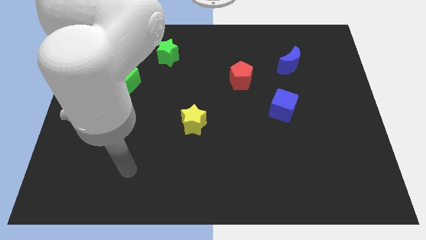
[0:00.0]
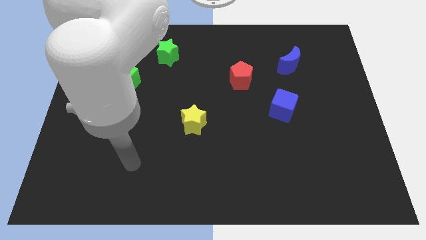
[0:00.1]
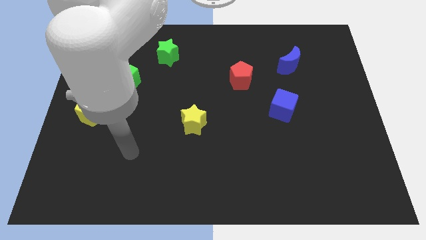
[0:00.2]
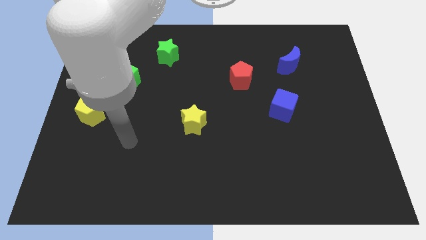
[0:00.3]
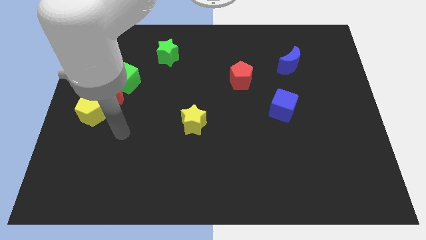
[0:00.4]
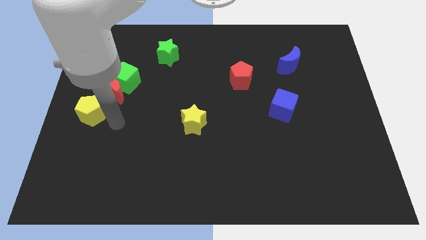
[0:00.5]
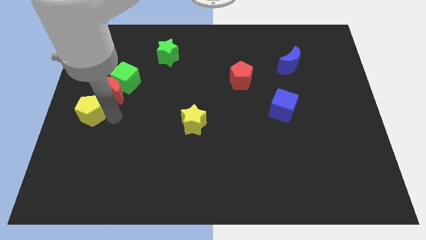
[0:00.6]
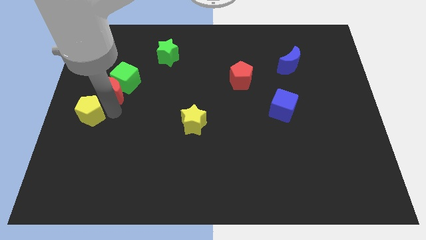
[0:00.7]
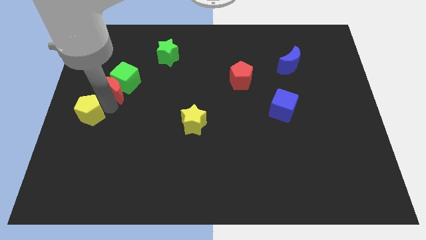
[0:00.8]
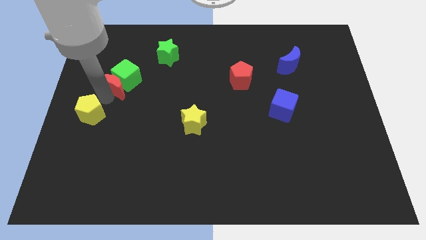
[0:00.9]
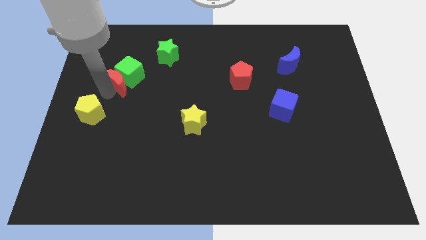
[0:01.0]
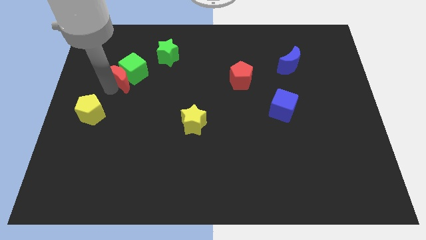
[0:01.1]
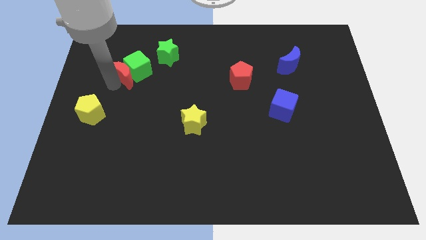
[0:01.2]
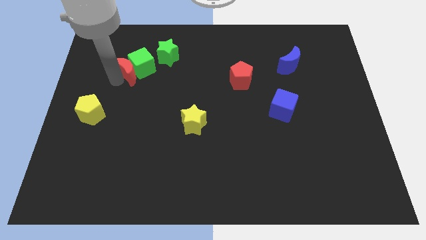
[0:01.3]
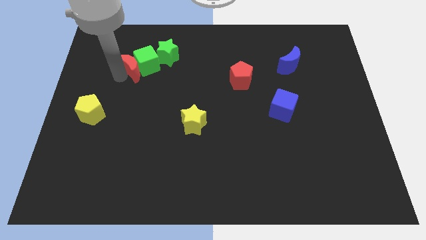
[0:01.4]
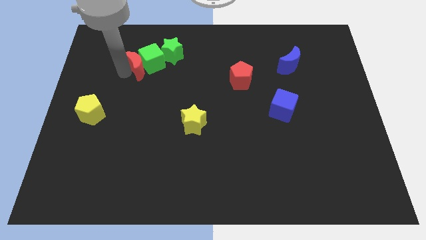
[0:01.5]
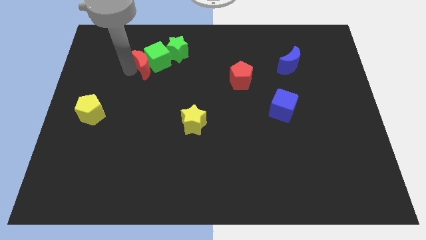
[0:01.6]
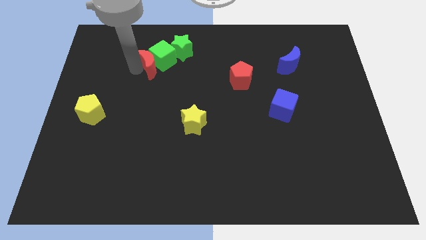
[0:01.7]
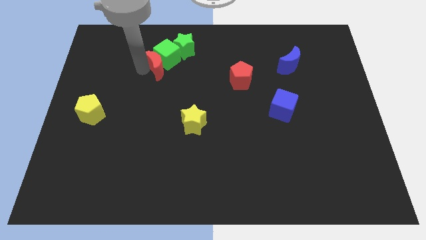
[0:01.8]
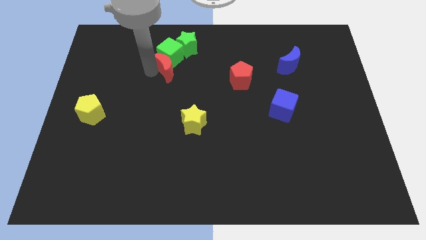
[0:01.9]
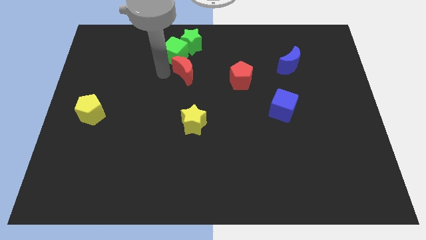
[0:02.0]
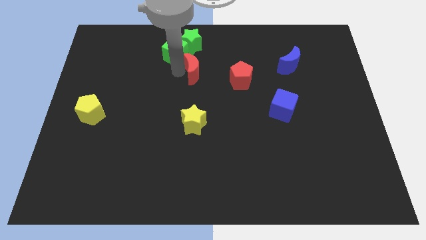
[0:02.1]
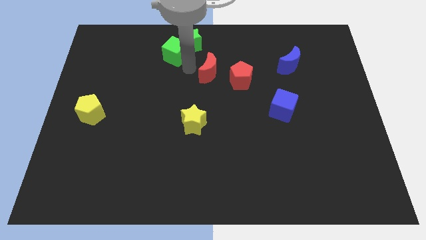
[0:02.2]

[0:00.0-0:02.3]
separate the green cube from the red moon

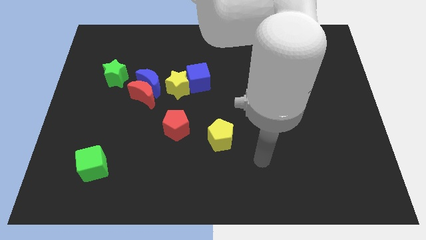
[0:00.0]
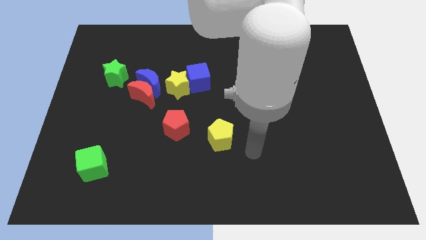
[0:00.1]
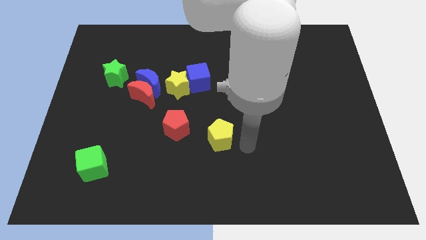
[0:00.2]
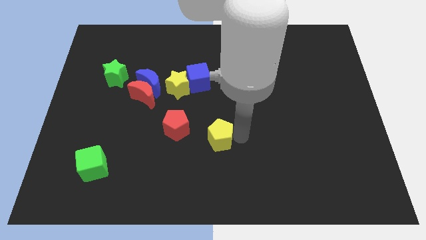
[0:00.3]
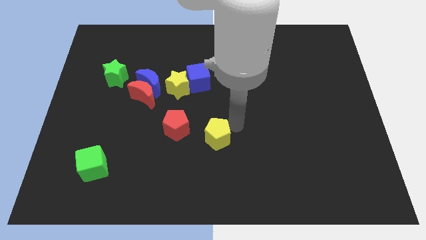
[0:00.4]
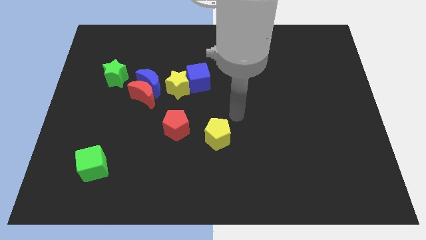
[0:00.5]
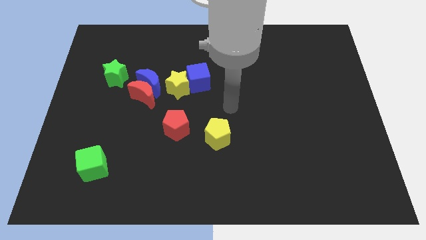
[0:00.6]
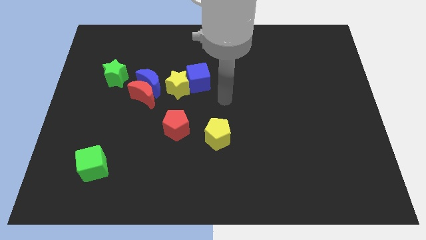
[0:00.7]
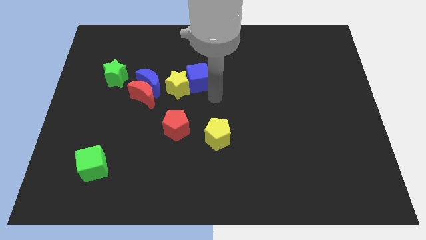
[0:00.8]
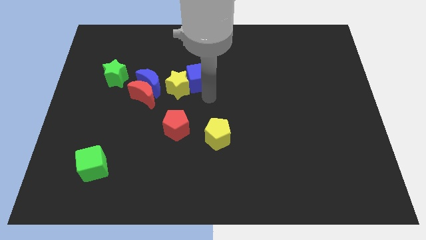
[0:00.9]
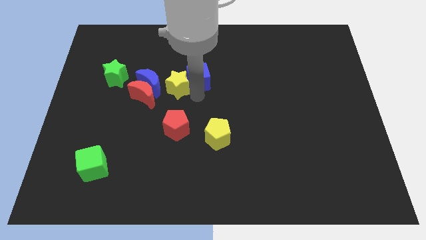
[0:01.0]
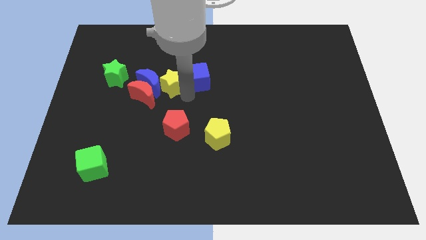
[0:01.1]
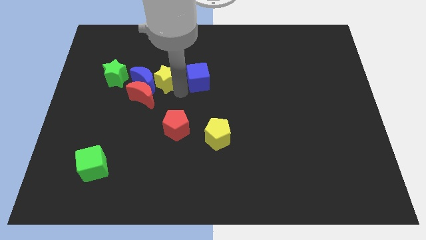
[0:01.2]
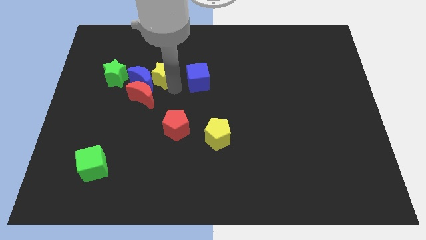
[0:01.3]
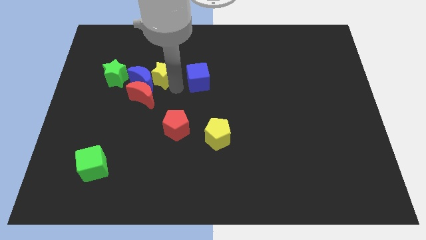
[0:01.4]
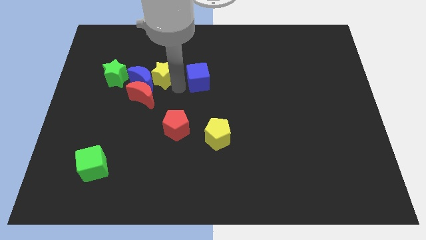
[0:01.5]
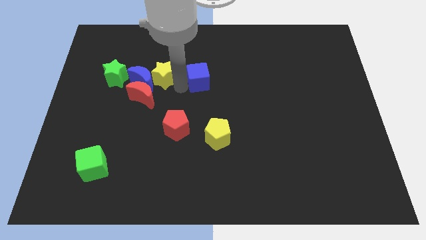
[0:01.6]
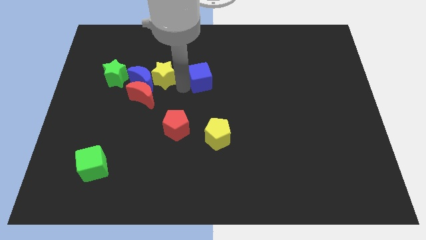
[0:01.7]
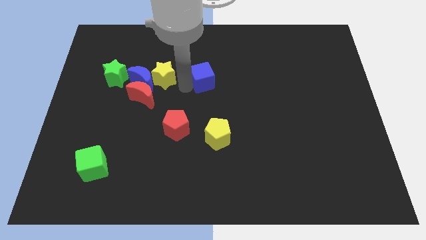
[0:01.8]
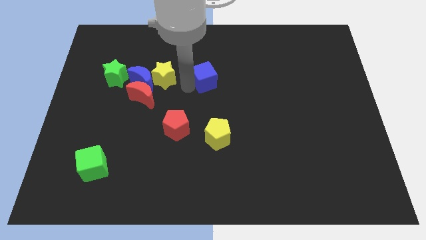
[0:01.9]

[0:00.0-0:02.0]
pull the blue cube apart from the yellow star

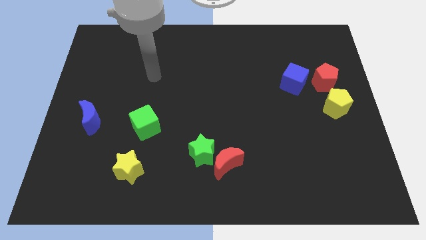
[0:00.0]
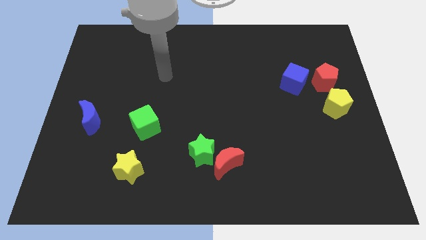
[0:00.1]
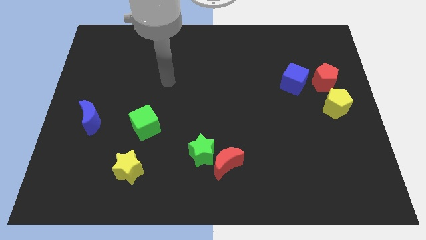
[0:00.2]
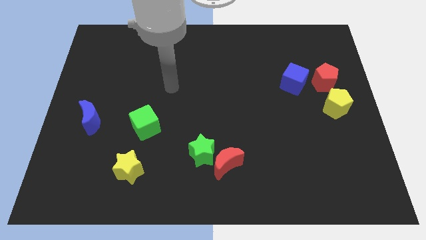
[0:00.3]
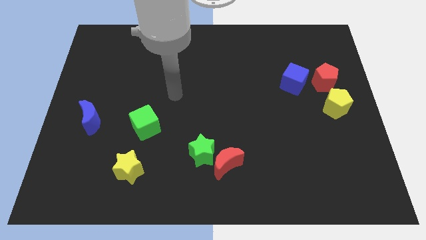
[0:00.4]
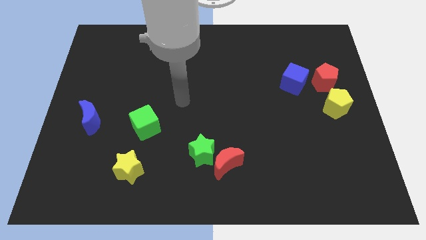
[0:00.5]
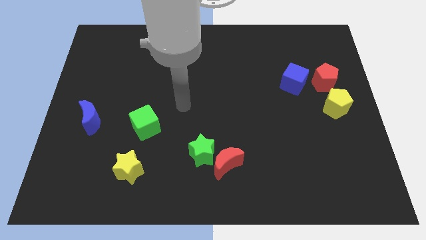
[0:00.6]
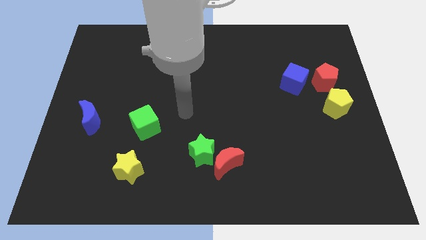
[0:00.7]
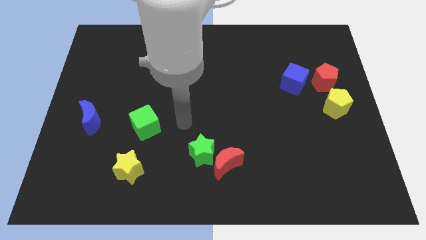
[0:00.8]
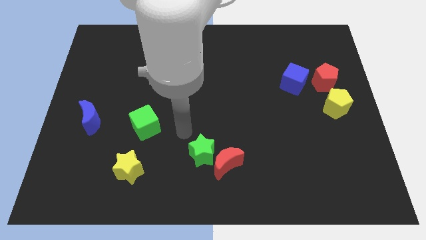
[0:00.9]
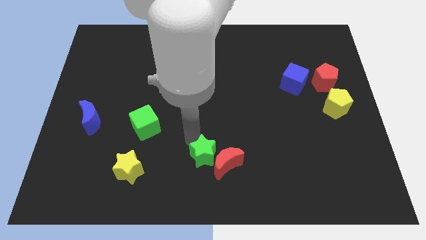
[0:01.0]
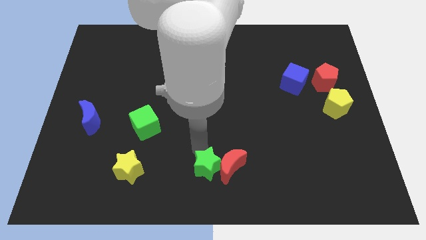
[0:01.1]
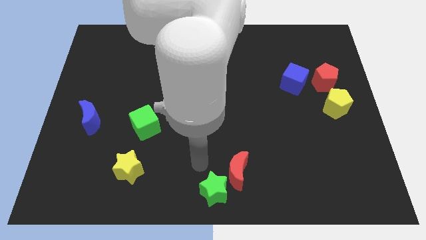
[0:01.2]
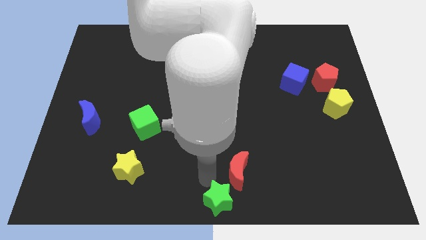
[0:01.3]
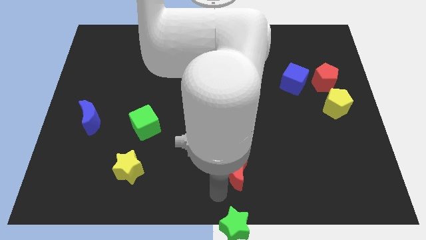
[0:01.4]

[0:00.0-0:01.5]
pull the red moon apart from the green star

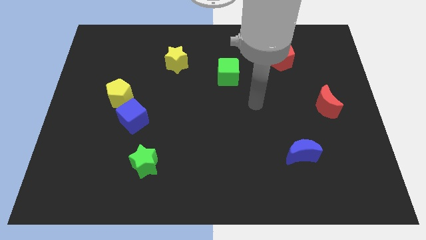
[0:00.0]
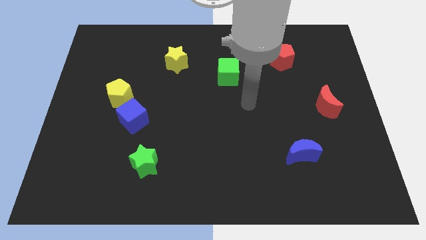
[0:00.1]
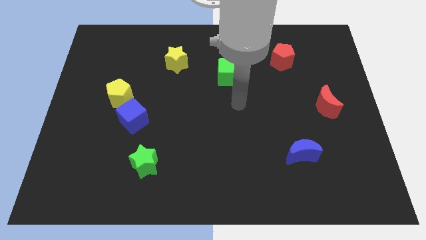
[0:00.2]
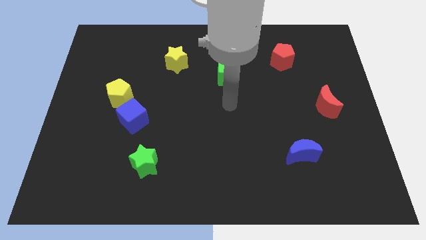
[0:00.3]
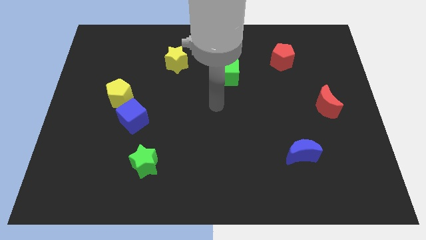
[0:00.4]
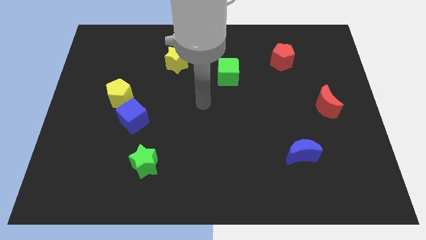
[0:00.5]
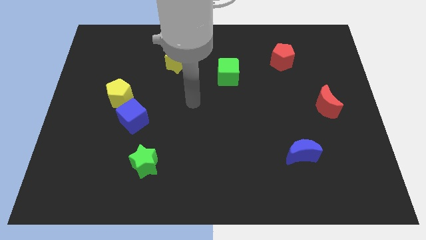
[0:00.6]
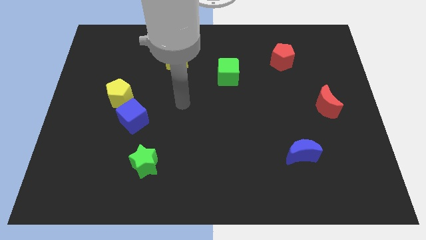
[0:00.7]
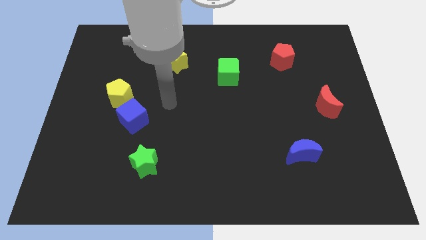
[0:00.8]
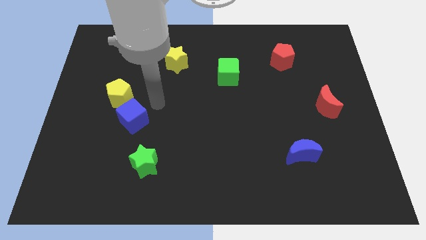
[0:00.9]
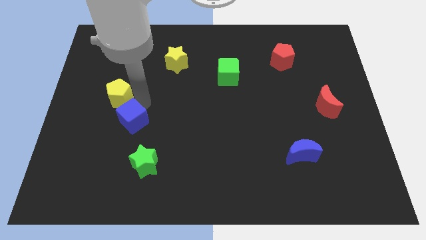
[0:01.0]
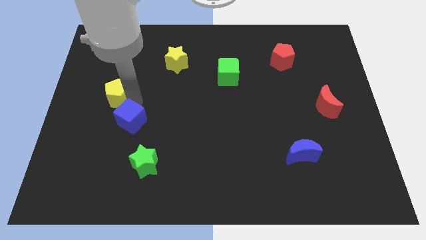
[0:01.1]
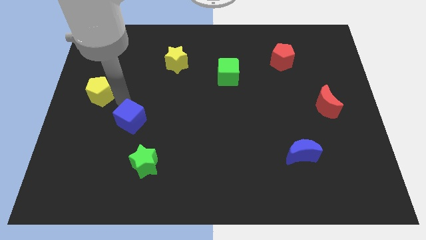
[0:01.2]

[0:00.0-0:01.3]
separate the blue cube from the yellow pentagon

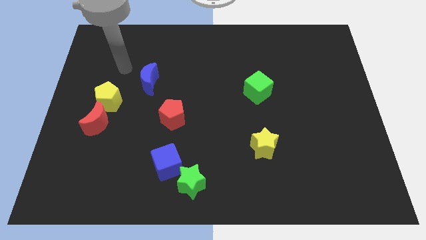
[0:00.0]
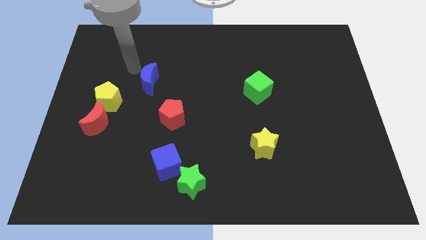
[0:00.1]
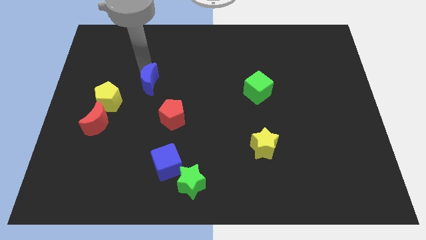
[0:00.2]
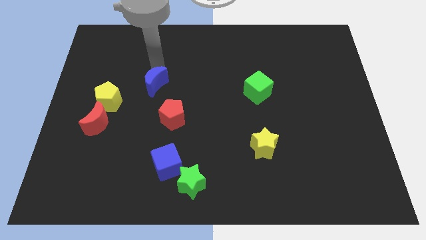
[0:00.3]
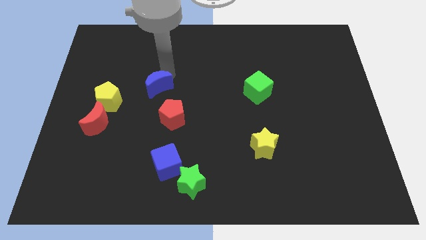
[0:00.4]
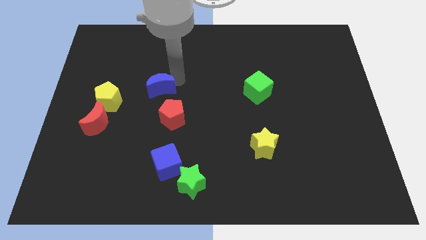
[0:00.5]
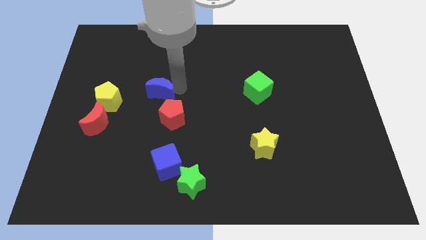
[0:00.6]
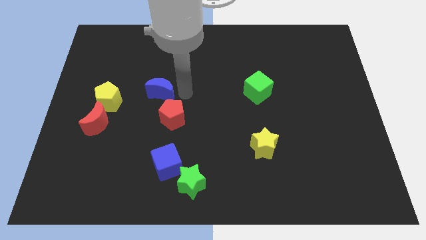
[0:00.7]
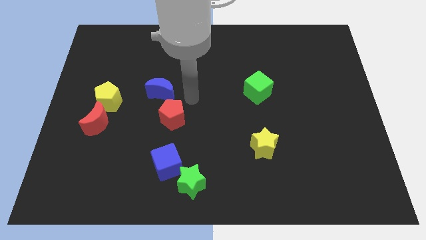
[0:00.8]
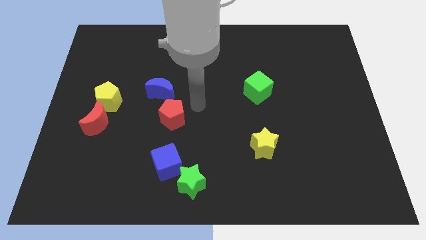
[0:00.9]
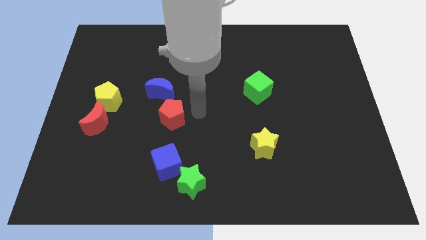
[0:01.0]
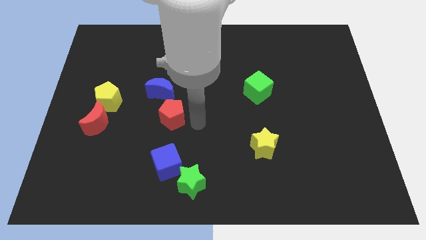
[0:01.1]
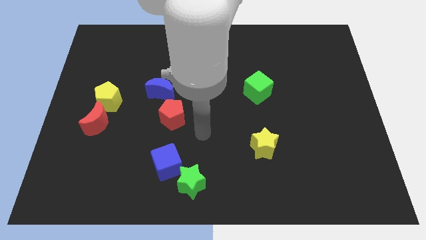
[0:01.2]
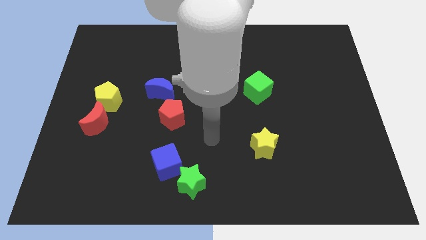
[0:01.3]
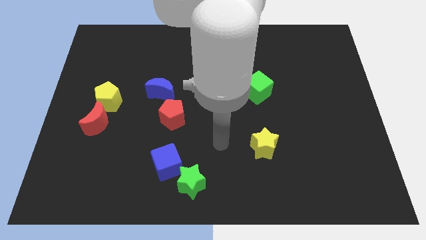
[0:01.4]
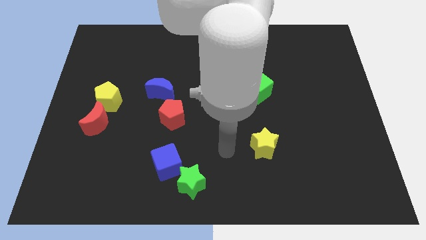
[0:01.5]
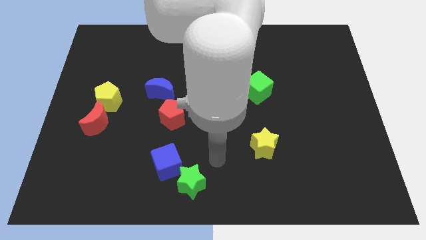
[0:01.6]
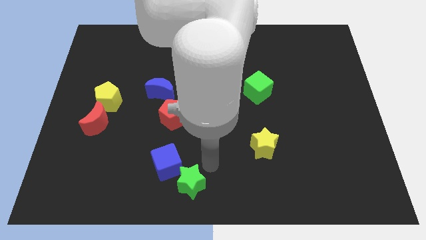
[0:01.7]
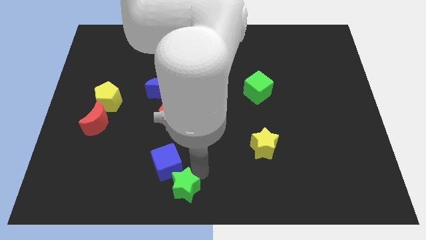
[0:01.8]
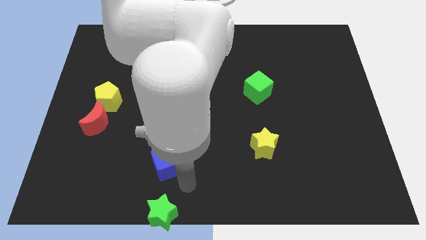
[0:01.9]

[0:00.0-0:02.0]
pull the blue cube apart from the green star

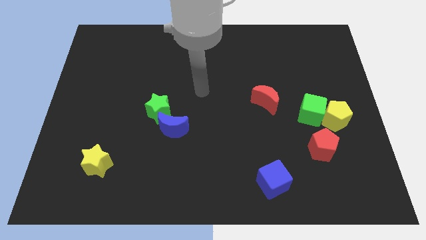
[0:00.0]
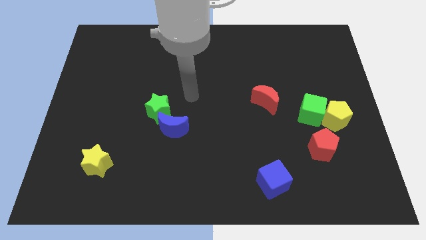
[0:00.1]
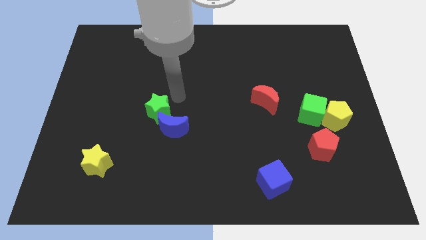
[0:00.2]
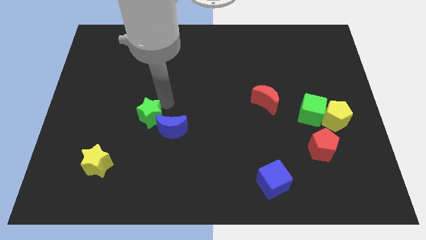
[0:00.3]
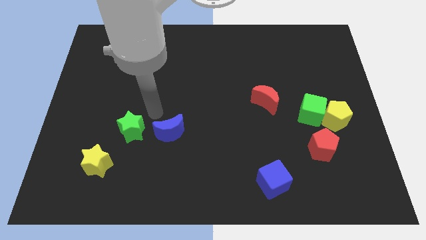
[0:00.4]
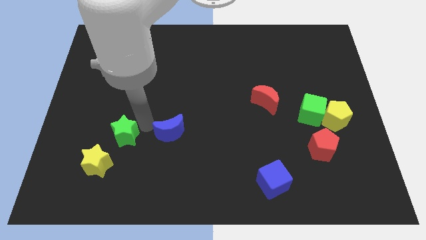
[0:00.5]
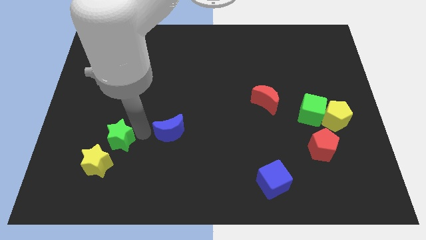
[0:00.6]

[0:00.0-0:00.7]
separate the blue moon from the green star
